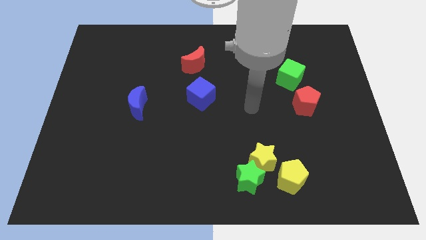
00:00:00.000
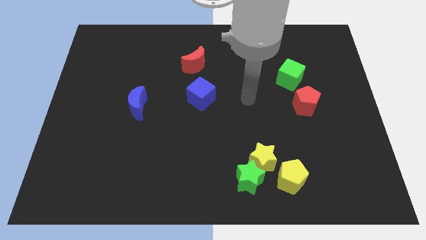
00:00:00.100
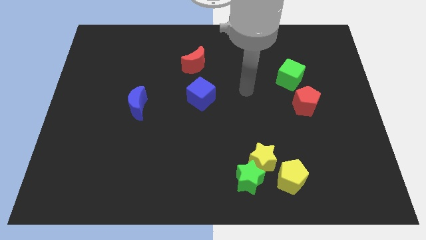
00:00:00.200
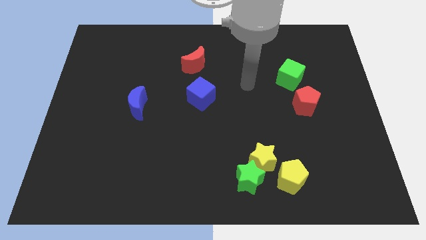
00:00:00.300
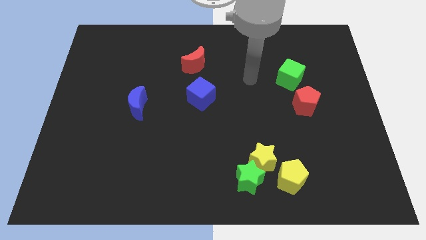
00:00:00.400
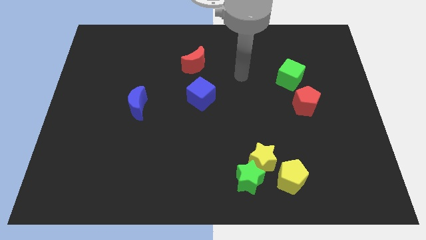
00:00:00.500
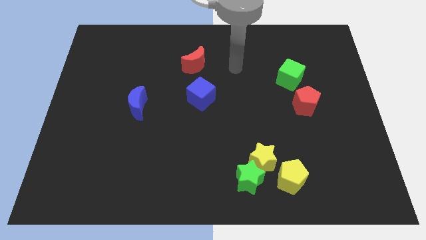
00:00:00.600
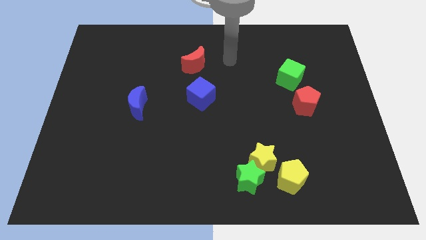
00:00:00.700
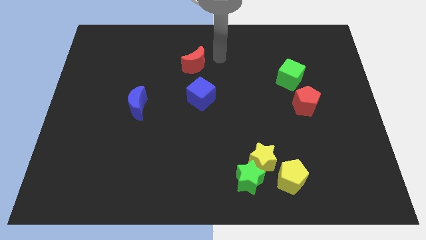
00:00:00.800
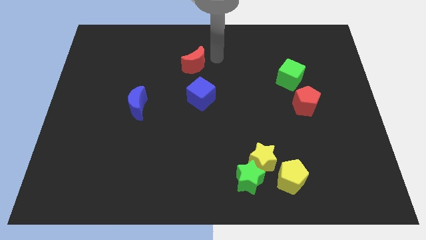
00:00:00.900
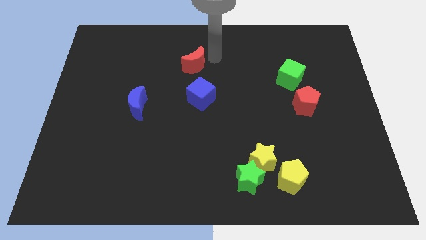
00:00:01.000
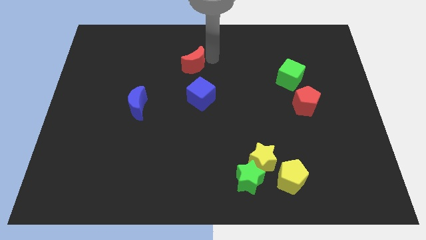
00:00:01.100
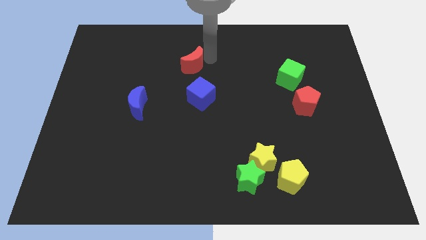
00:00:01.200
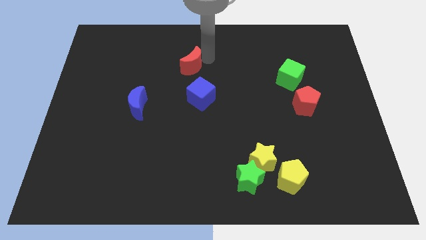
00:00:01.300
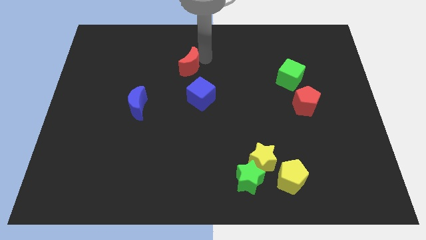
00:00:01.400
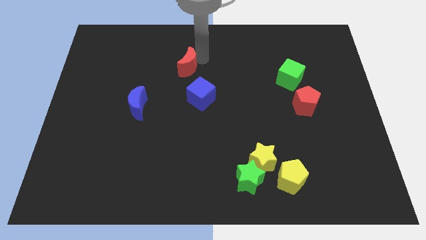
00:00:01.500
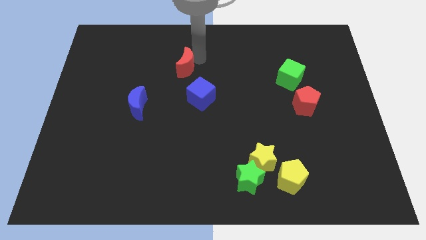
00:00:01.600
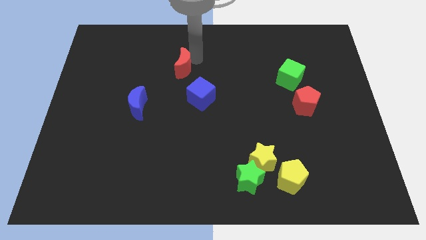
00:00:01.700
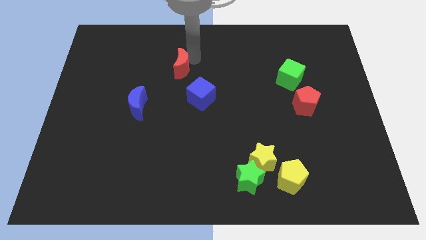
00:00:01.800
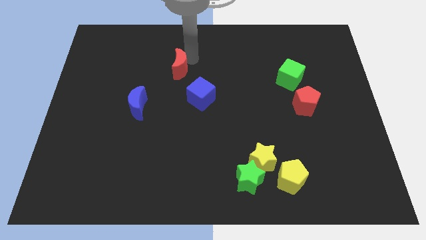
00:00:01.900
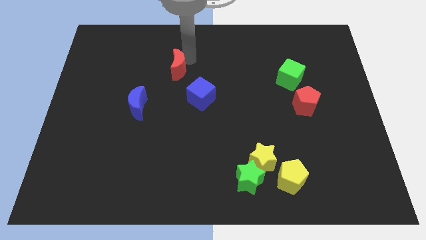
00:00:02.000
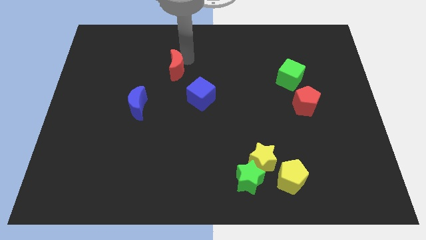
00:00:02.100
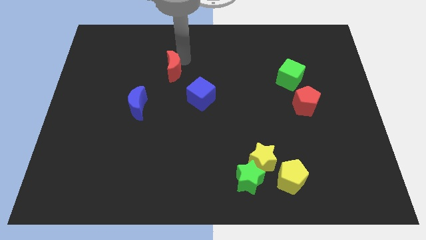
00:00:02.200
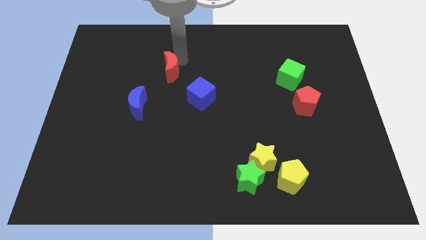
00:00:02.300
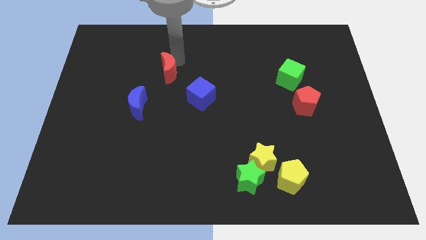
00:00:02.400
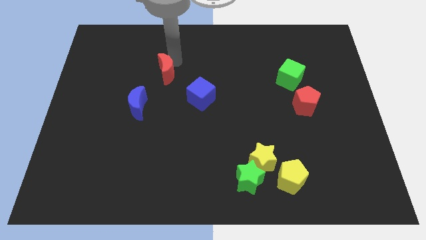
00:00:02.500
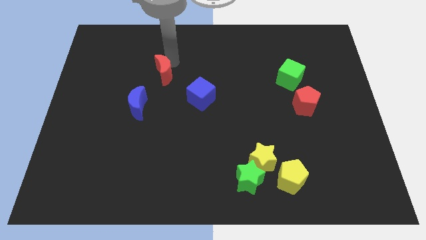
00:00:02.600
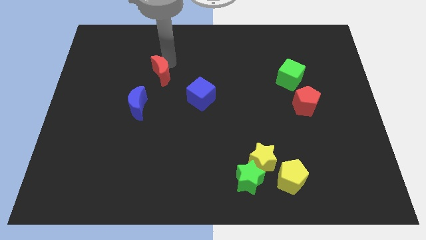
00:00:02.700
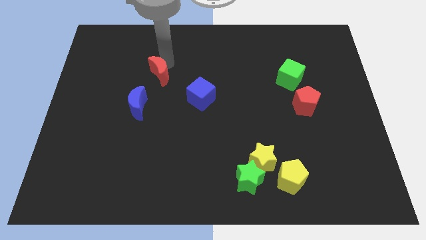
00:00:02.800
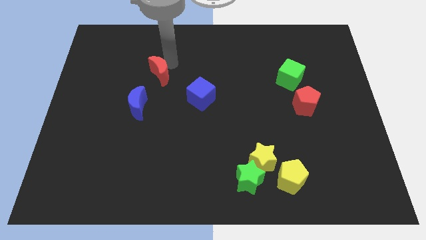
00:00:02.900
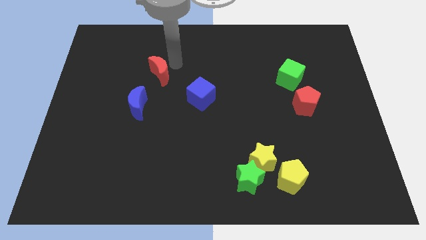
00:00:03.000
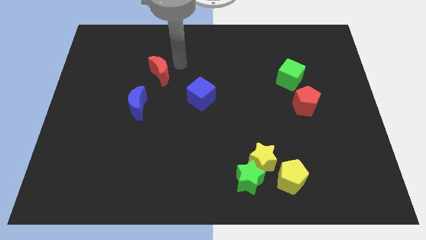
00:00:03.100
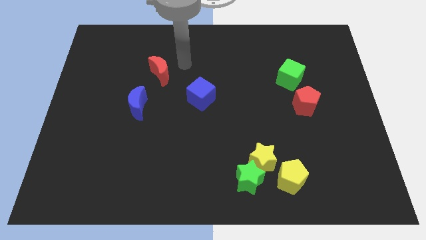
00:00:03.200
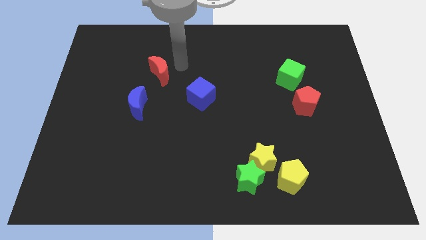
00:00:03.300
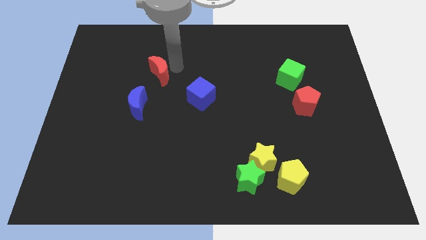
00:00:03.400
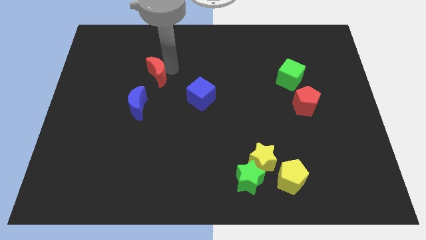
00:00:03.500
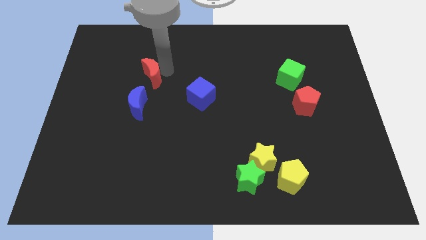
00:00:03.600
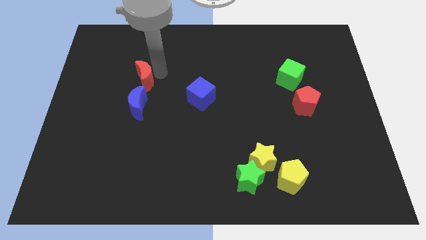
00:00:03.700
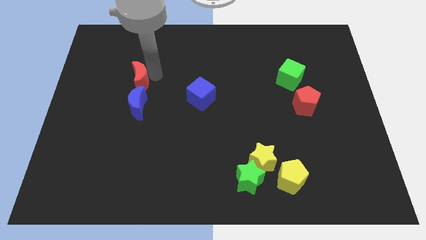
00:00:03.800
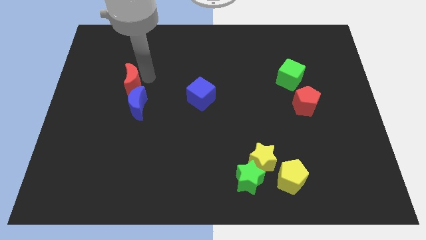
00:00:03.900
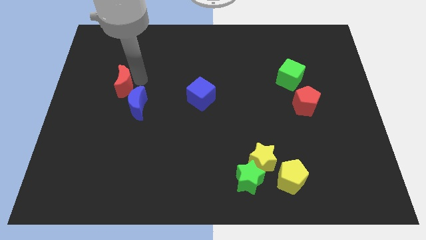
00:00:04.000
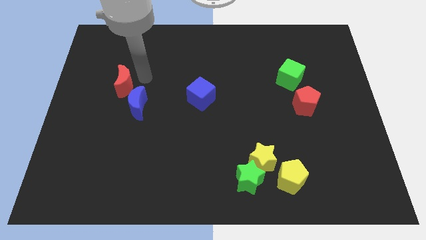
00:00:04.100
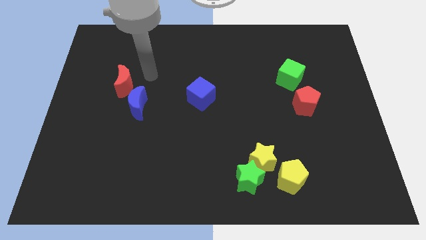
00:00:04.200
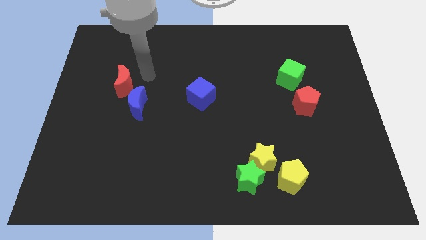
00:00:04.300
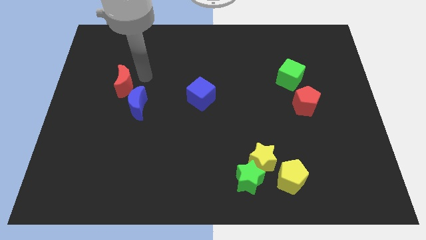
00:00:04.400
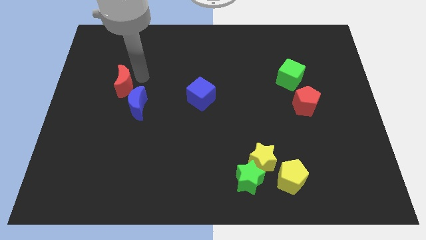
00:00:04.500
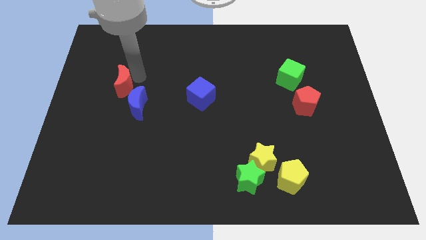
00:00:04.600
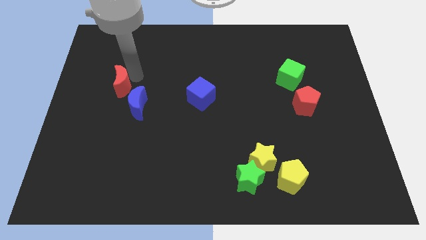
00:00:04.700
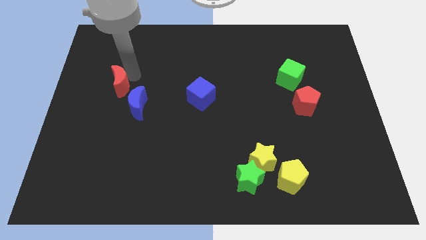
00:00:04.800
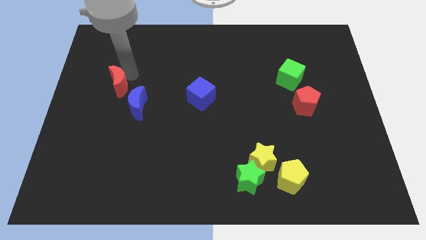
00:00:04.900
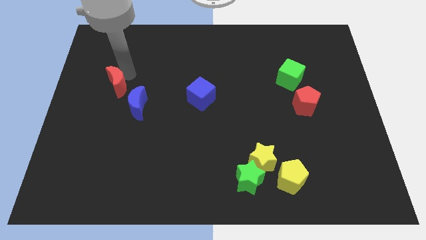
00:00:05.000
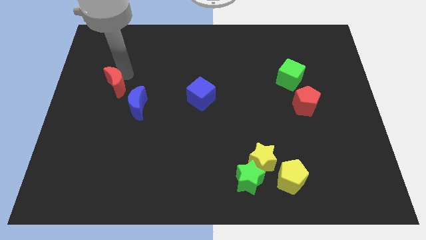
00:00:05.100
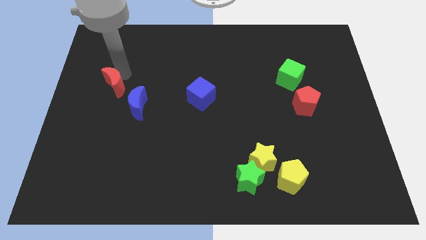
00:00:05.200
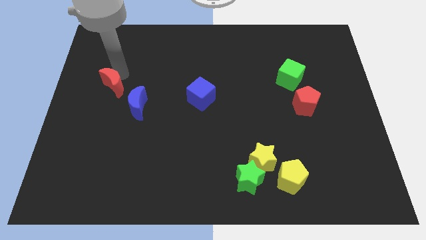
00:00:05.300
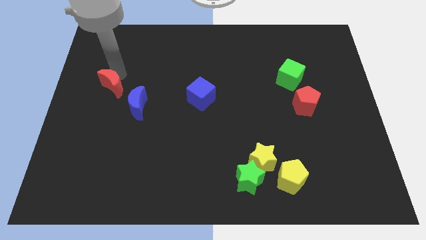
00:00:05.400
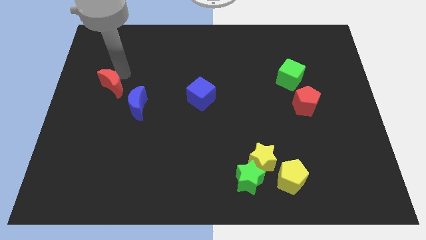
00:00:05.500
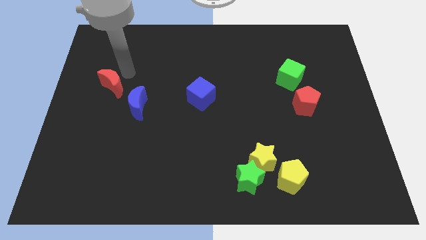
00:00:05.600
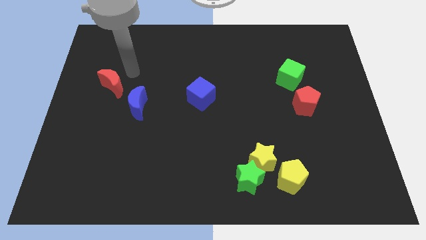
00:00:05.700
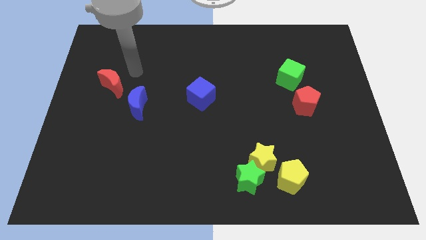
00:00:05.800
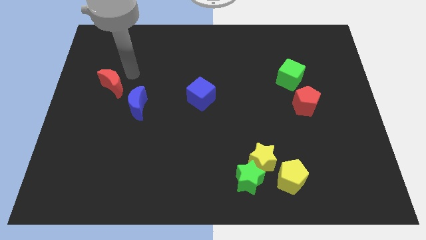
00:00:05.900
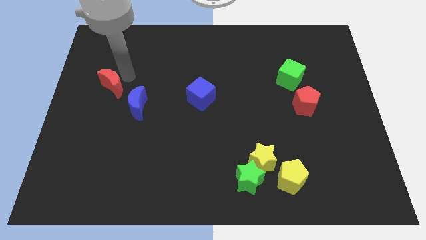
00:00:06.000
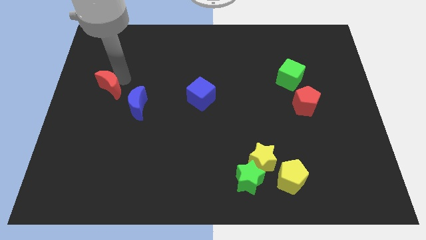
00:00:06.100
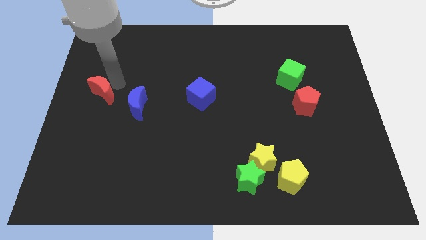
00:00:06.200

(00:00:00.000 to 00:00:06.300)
slide the red moon to the left side
